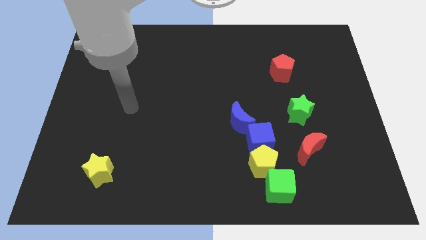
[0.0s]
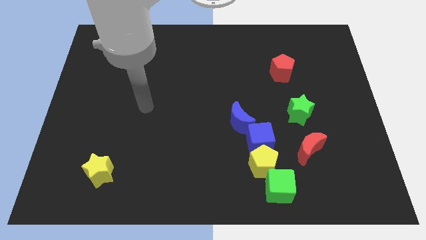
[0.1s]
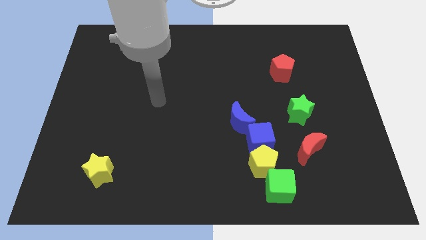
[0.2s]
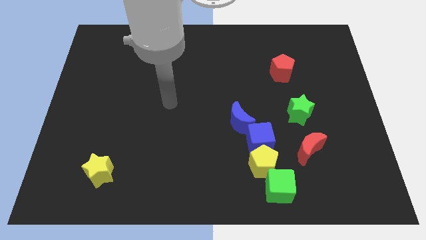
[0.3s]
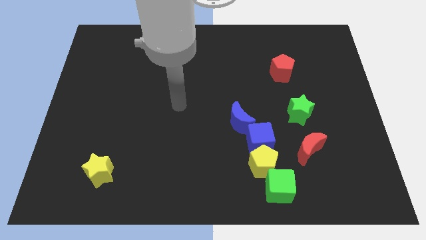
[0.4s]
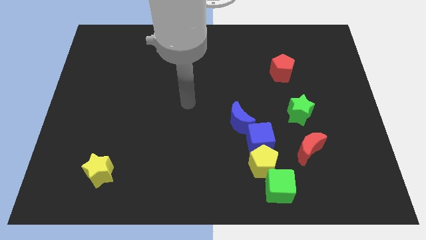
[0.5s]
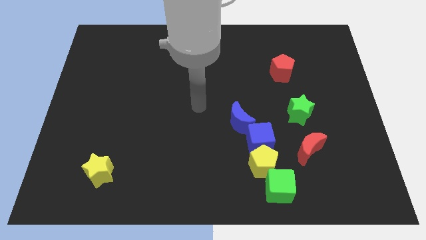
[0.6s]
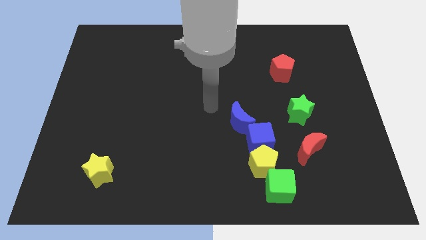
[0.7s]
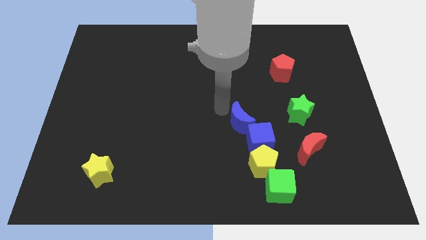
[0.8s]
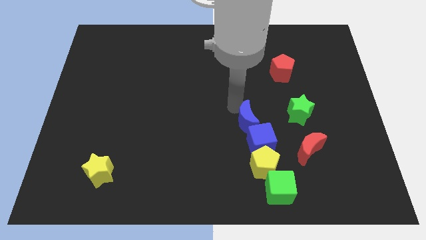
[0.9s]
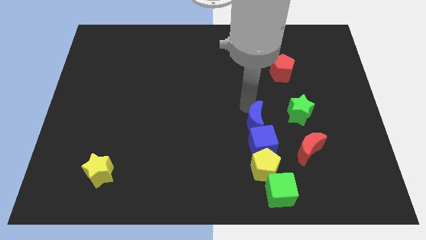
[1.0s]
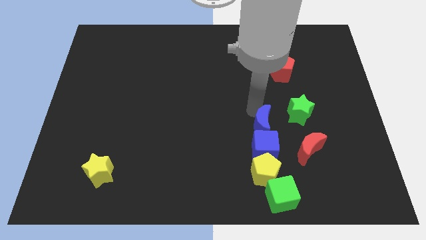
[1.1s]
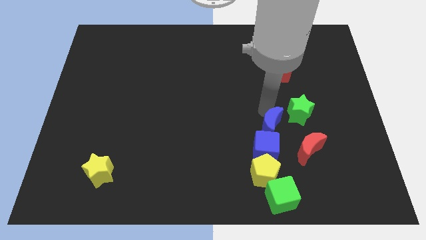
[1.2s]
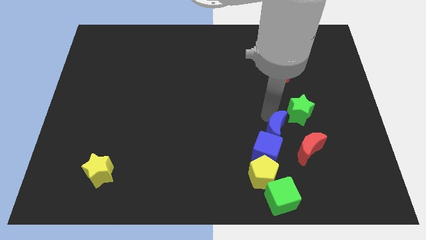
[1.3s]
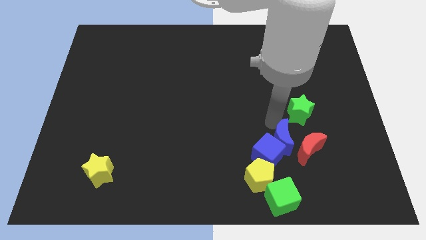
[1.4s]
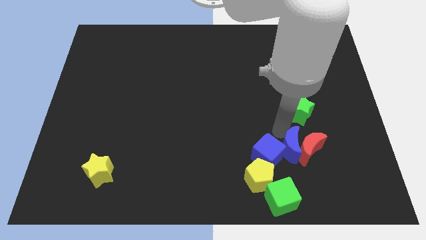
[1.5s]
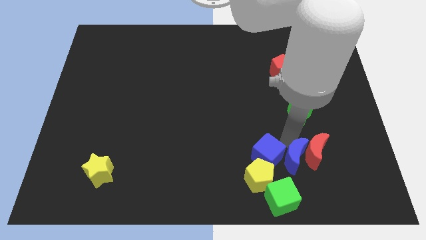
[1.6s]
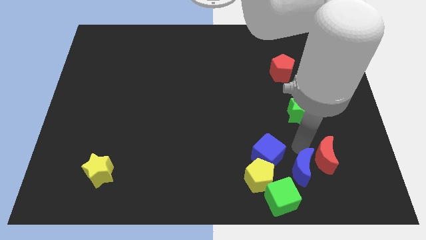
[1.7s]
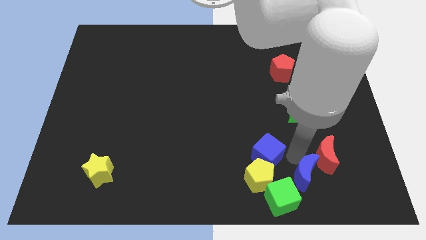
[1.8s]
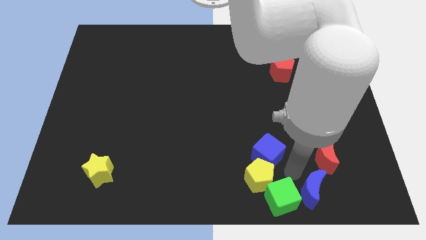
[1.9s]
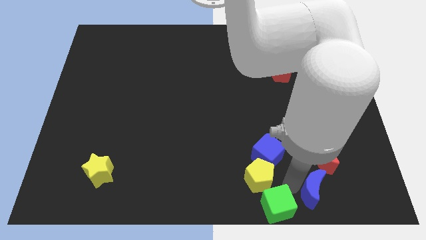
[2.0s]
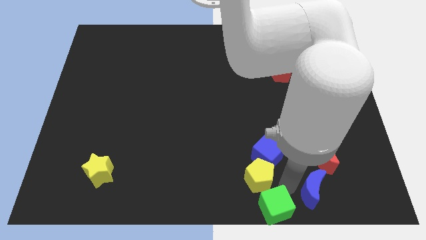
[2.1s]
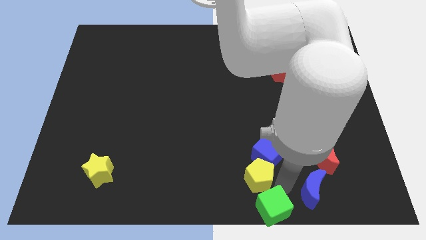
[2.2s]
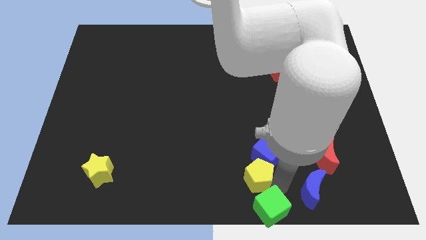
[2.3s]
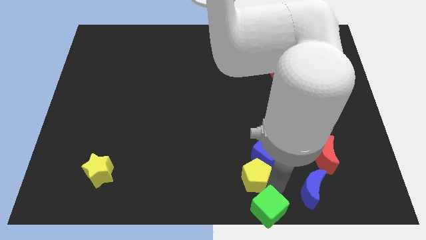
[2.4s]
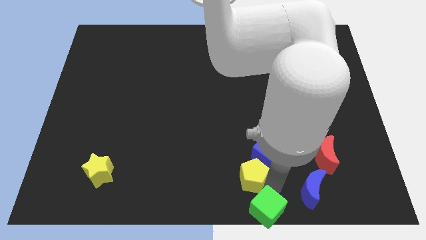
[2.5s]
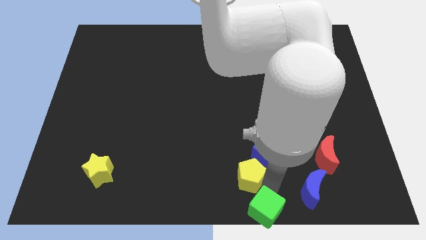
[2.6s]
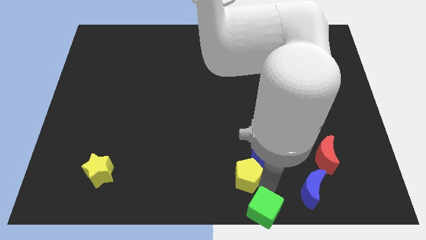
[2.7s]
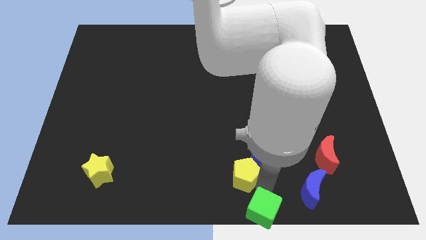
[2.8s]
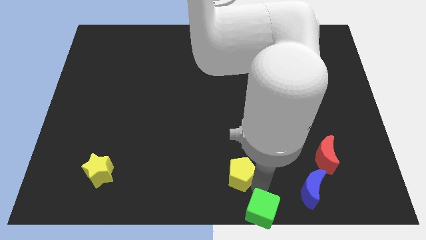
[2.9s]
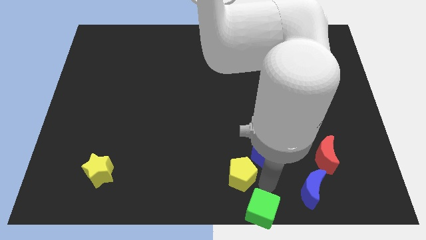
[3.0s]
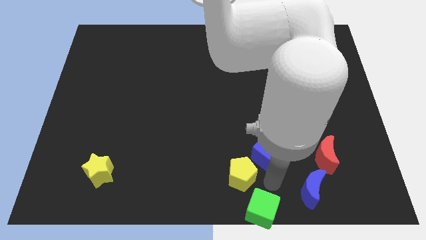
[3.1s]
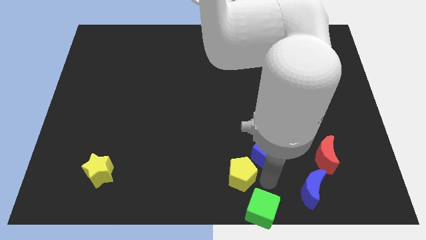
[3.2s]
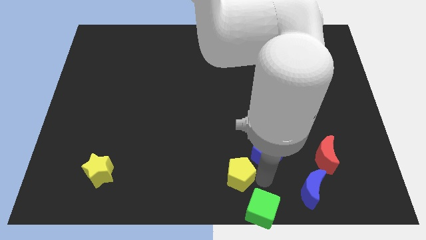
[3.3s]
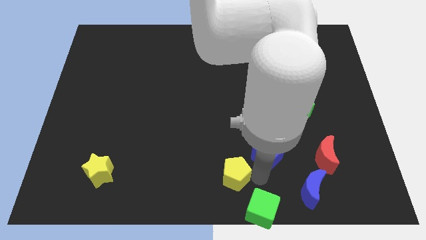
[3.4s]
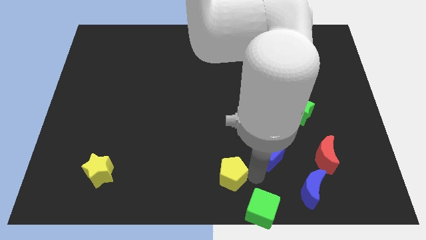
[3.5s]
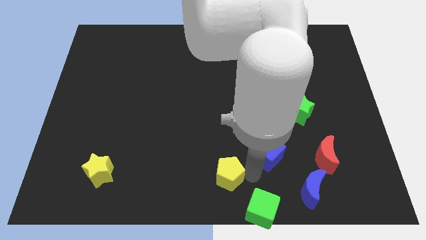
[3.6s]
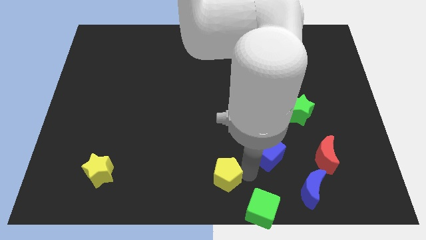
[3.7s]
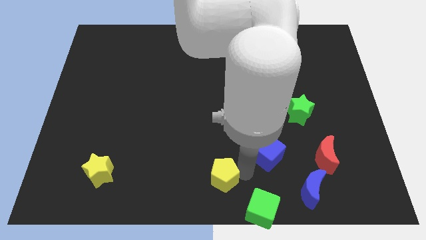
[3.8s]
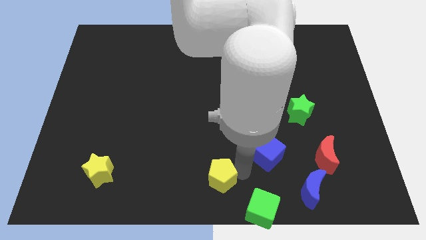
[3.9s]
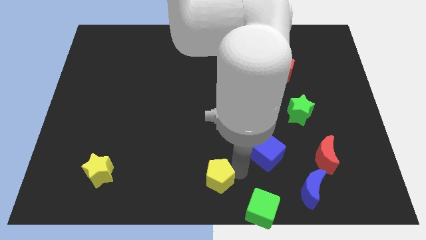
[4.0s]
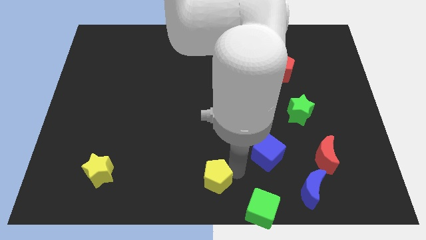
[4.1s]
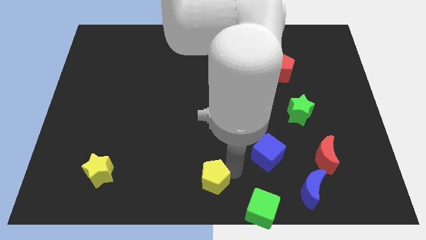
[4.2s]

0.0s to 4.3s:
move the yellow pentagon away from the blue cube and green cube

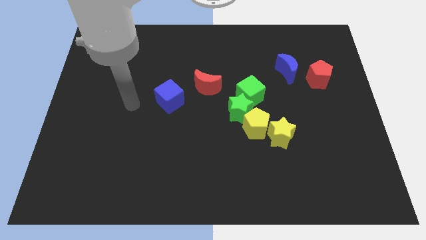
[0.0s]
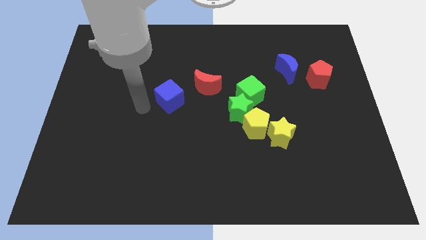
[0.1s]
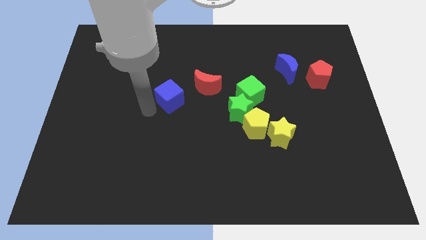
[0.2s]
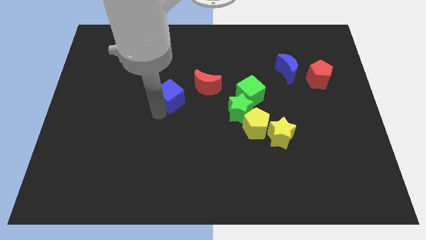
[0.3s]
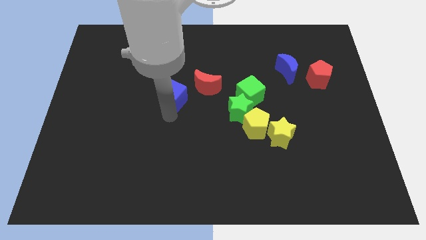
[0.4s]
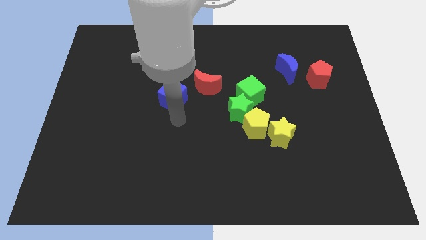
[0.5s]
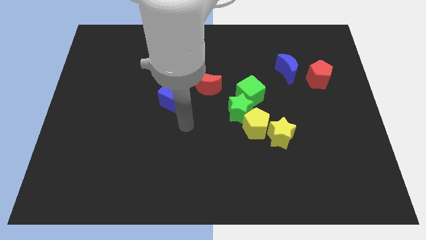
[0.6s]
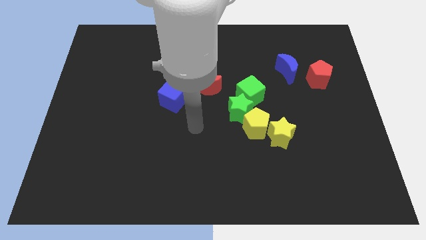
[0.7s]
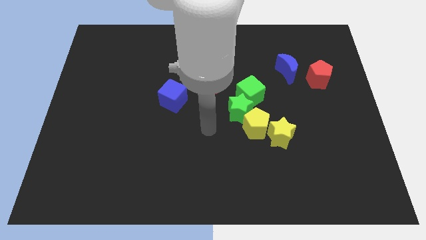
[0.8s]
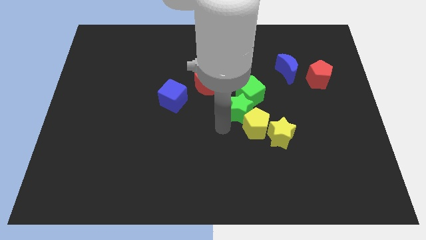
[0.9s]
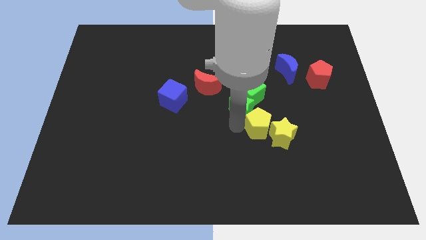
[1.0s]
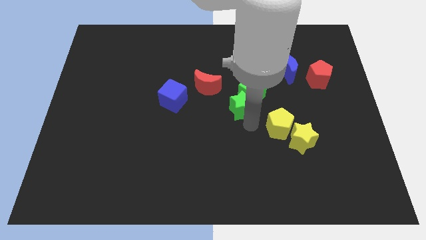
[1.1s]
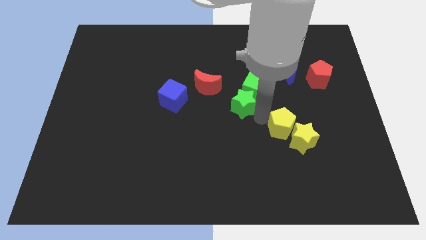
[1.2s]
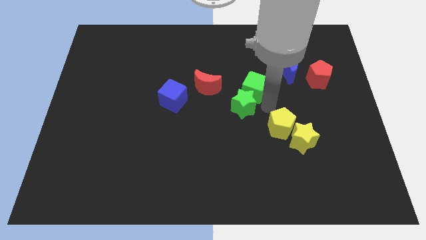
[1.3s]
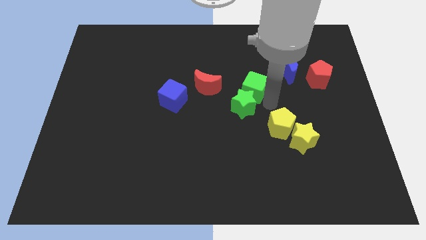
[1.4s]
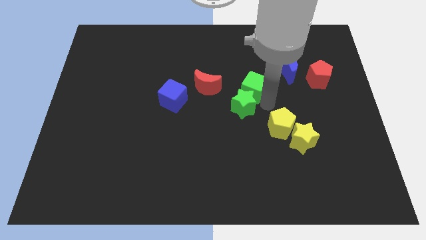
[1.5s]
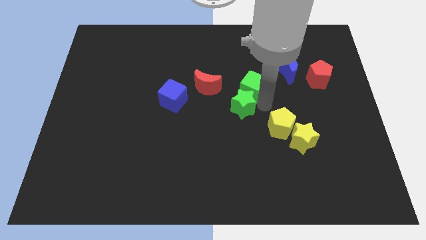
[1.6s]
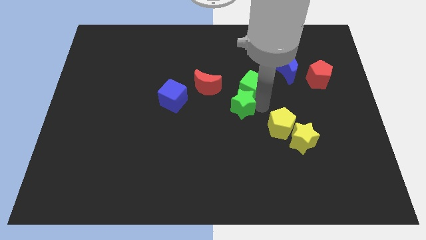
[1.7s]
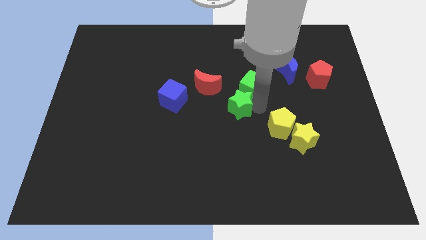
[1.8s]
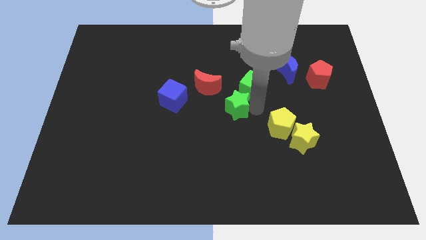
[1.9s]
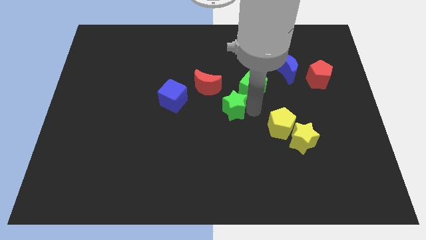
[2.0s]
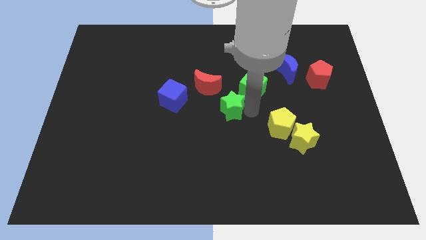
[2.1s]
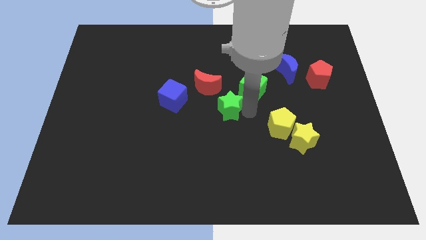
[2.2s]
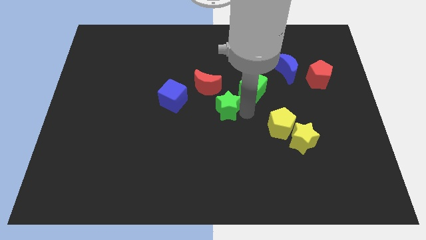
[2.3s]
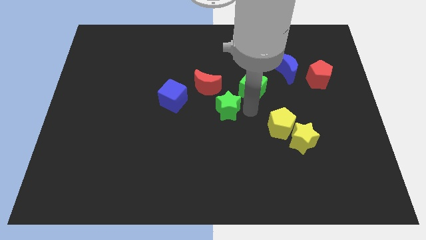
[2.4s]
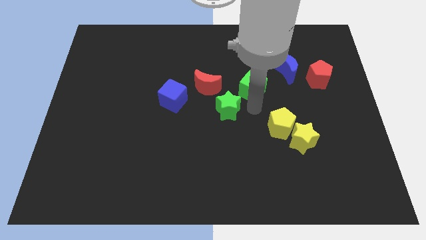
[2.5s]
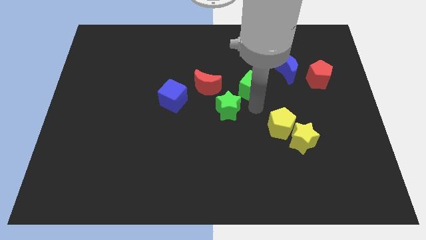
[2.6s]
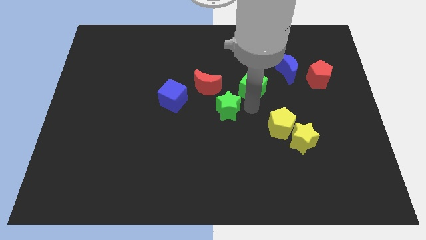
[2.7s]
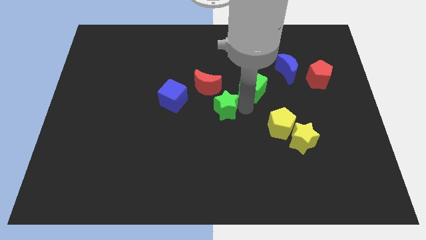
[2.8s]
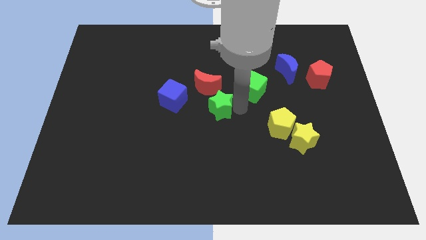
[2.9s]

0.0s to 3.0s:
separate the green star from the green cube and yellow pentagon

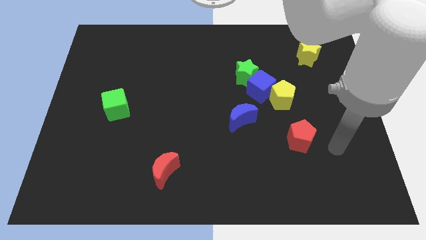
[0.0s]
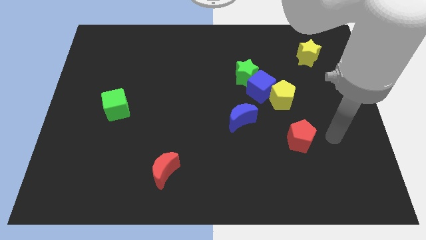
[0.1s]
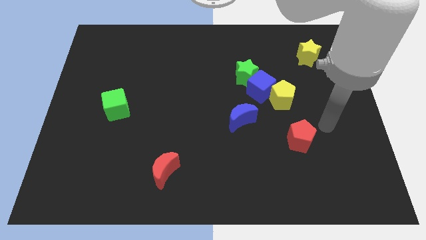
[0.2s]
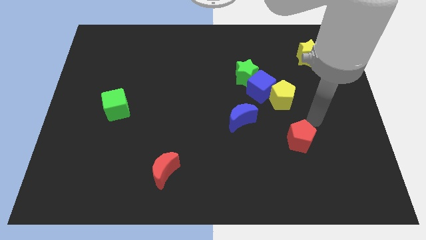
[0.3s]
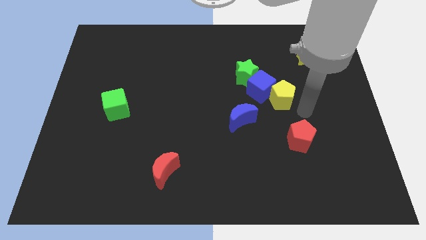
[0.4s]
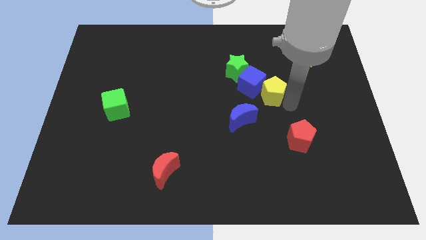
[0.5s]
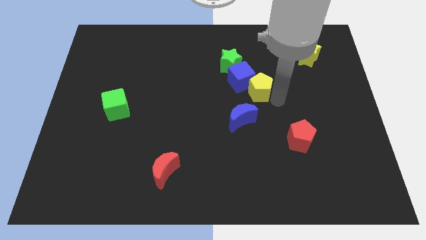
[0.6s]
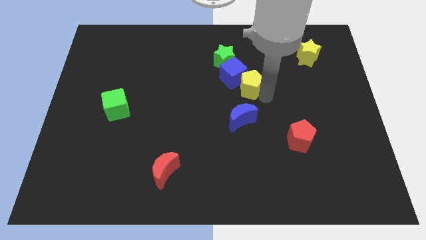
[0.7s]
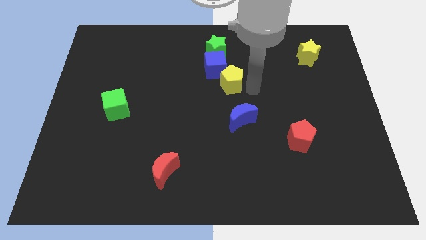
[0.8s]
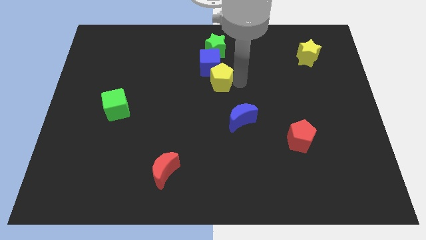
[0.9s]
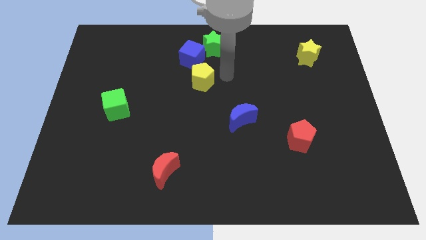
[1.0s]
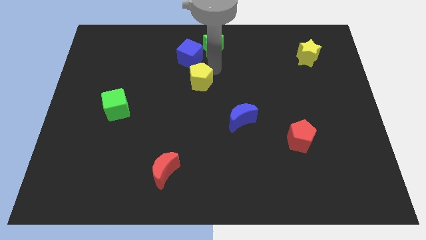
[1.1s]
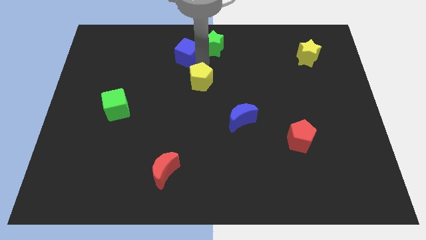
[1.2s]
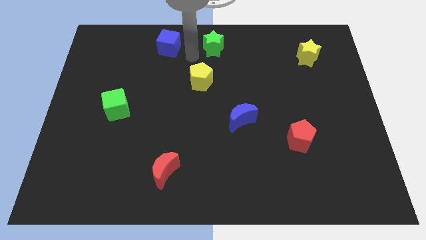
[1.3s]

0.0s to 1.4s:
move the green star away from the blue cube

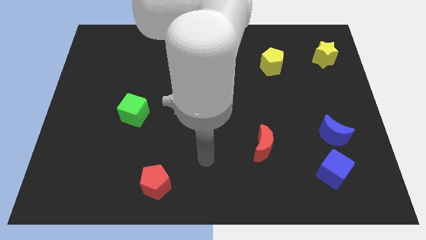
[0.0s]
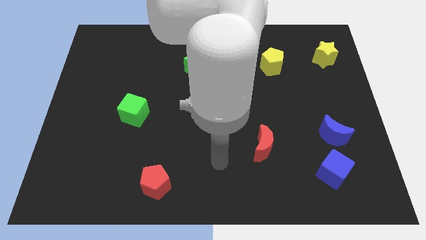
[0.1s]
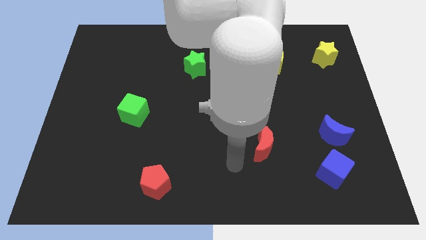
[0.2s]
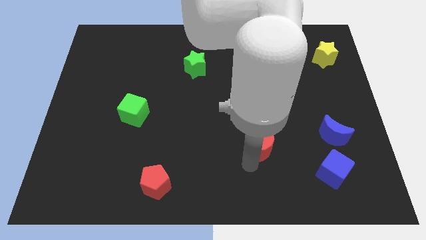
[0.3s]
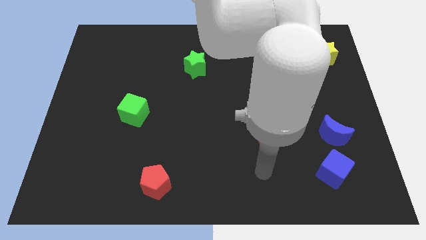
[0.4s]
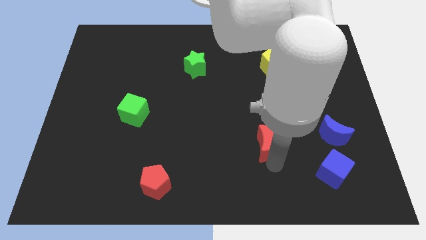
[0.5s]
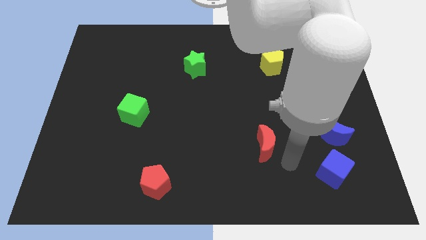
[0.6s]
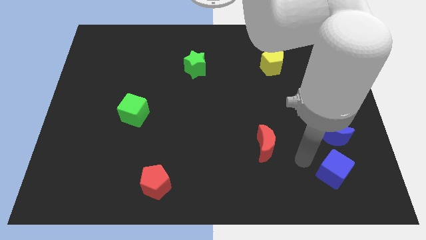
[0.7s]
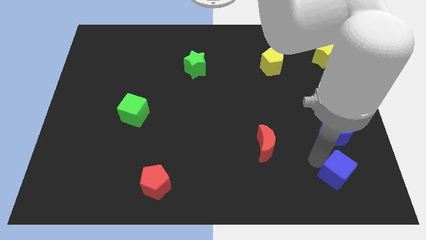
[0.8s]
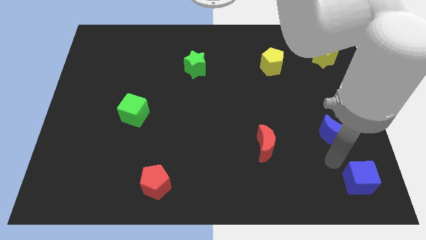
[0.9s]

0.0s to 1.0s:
separate the blue moon from the blue cube
